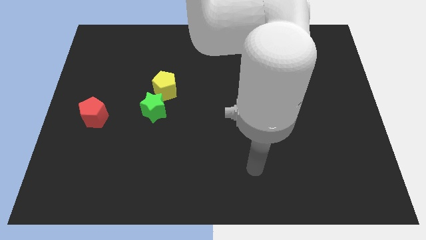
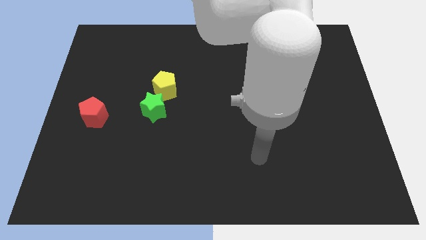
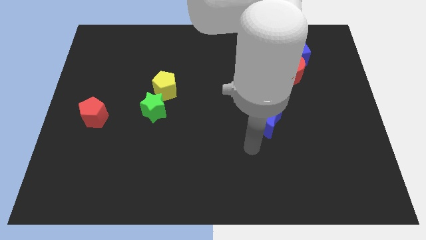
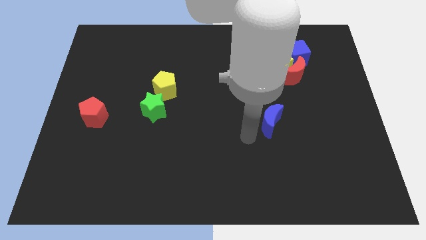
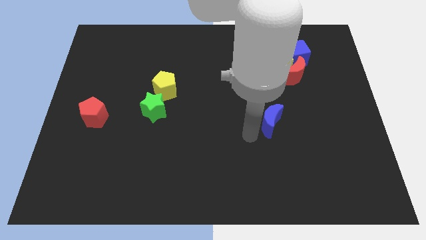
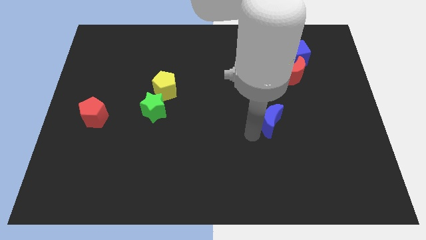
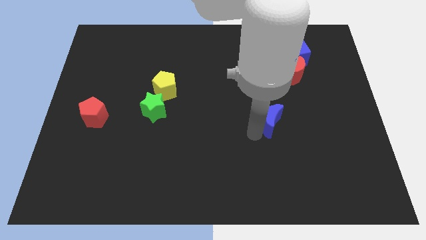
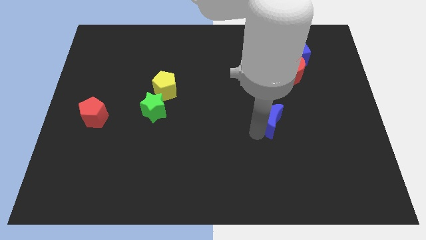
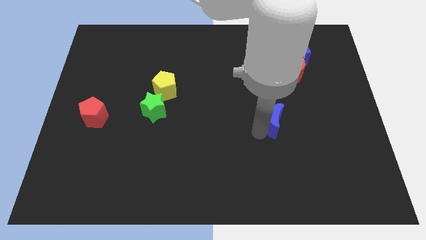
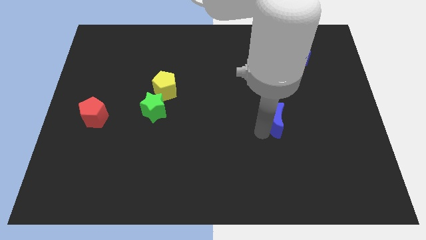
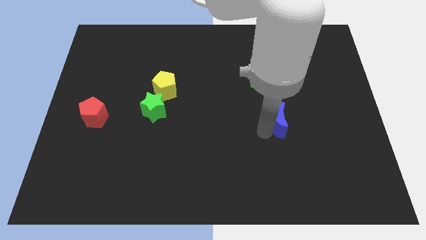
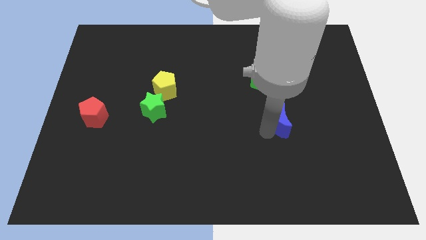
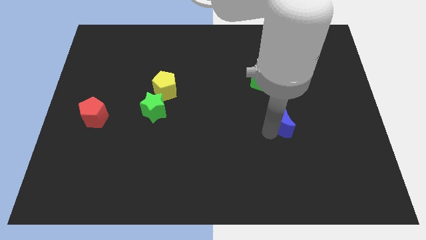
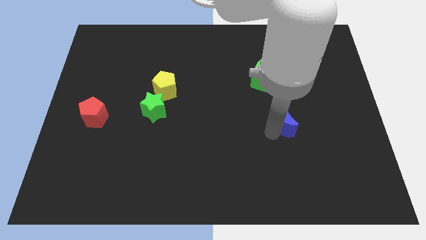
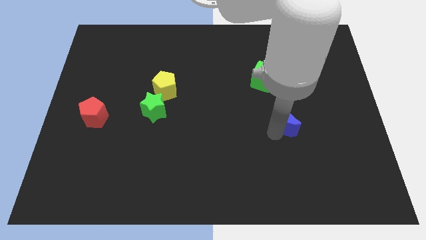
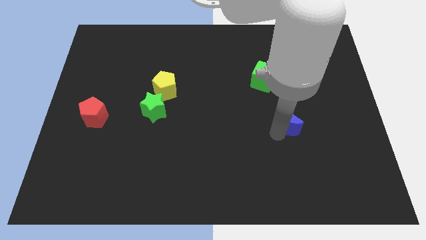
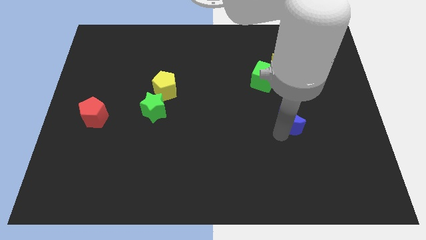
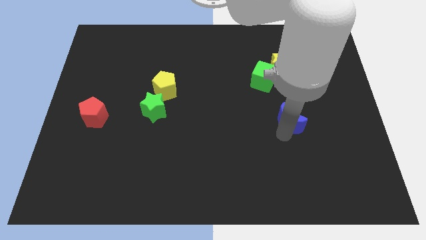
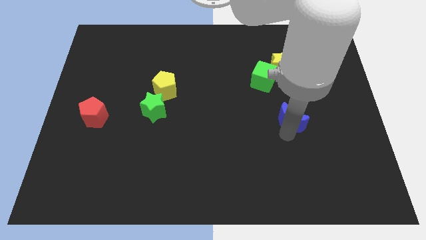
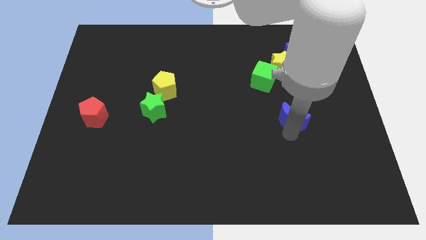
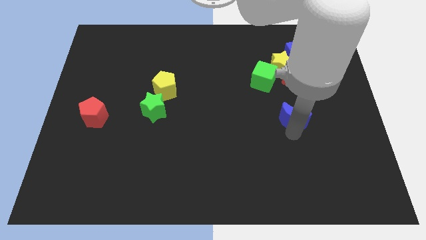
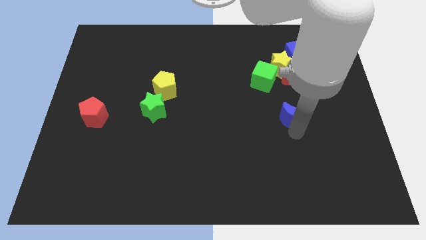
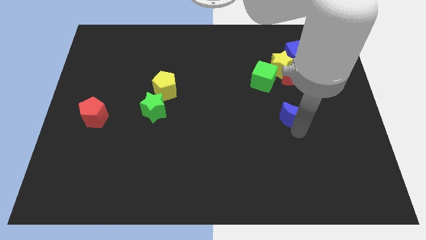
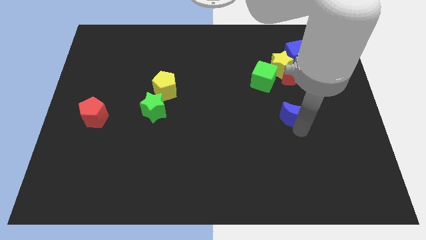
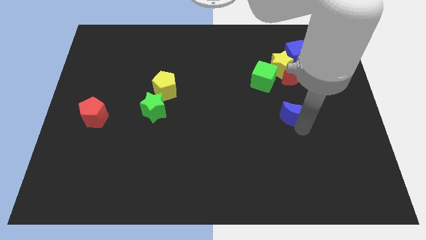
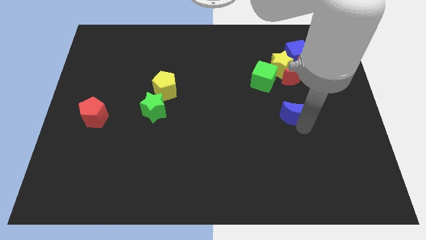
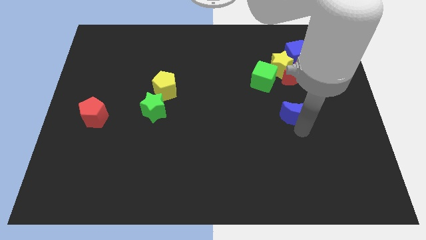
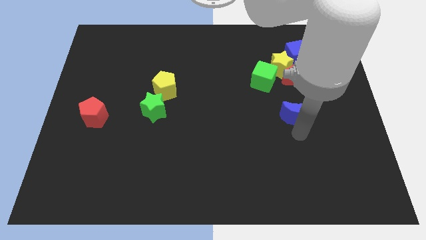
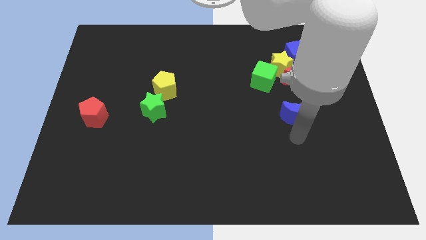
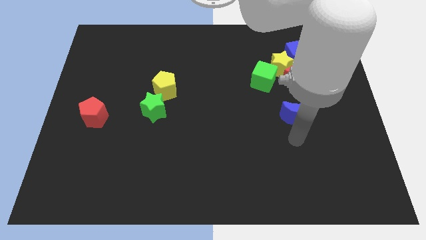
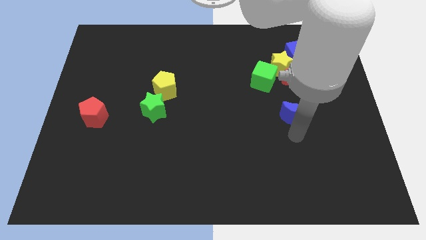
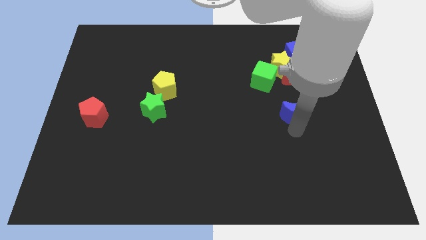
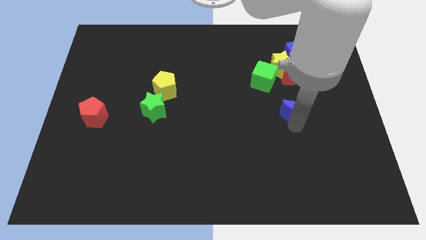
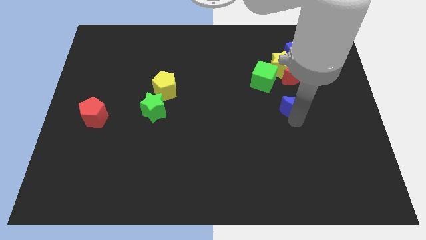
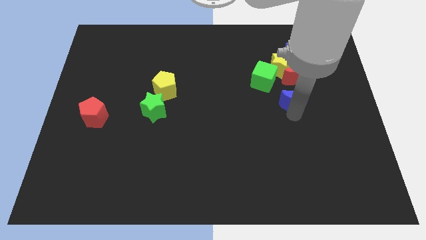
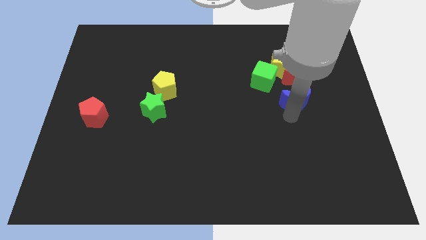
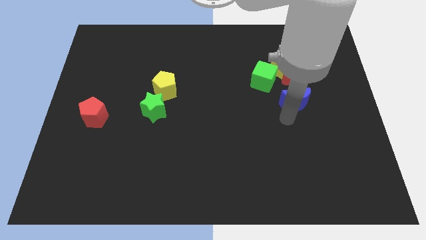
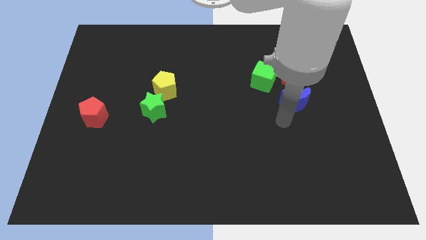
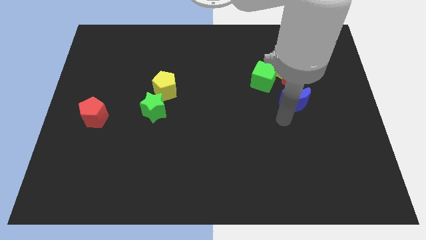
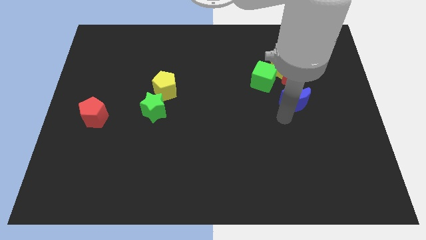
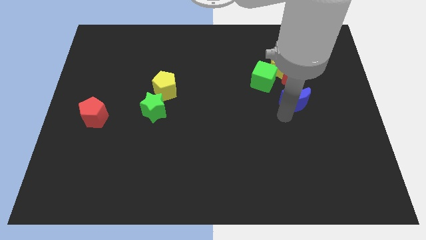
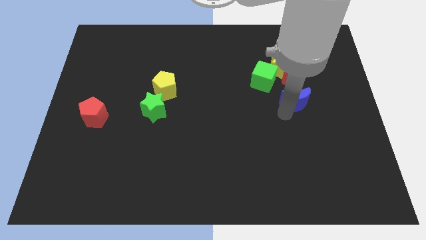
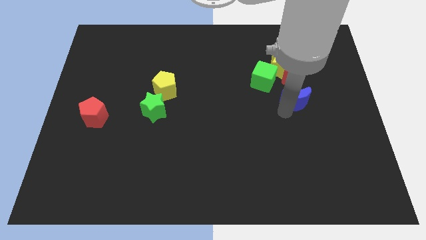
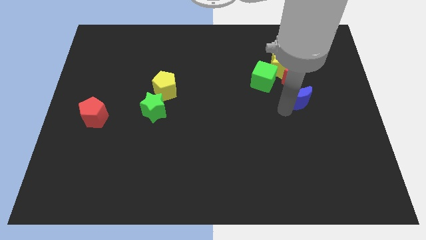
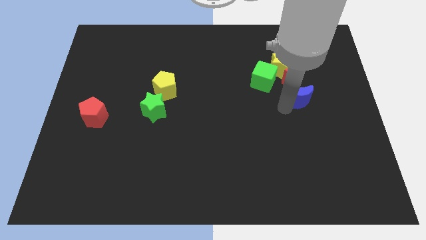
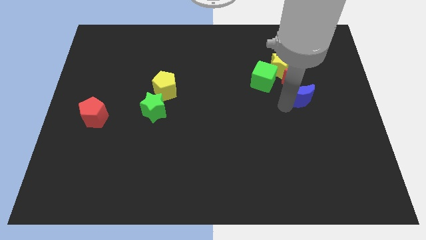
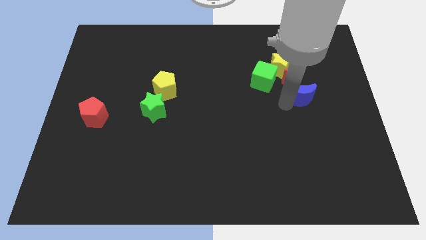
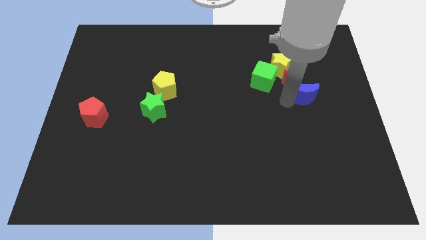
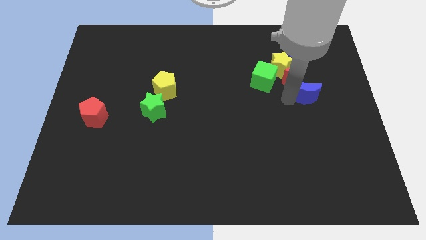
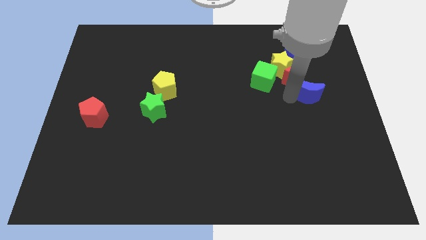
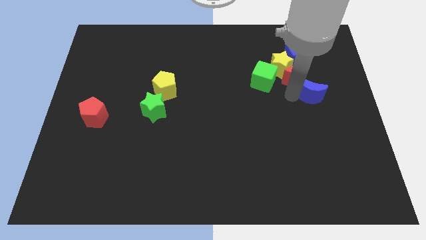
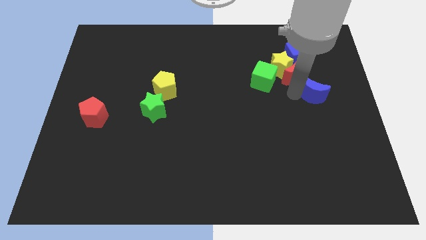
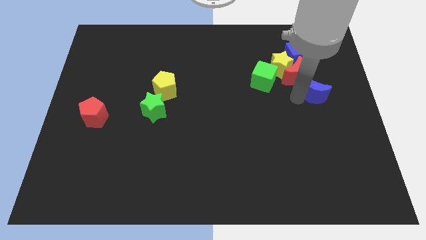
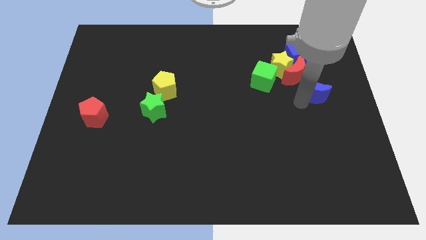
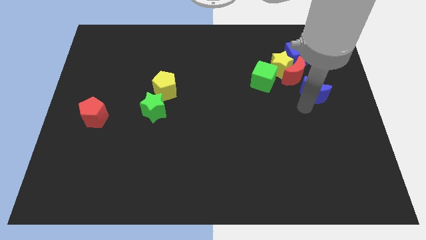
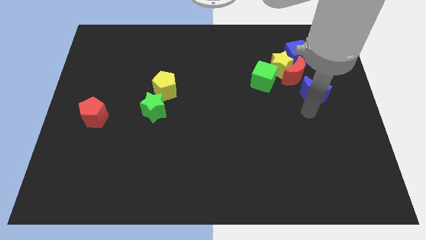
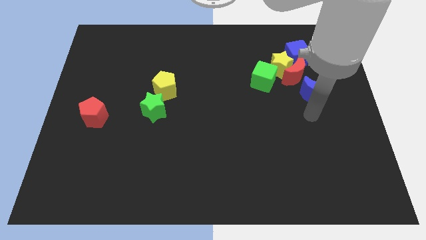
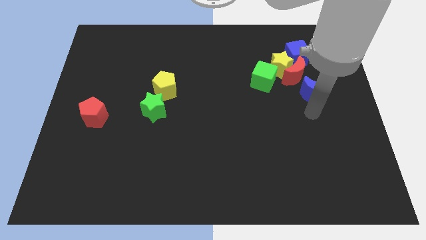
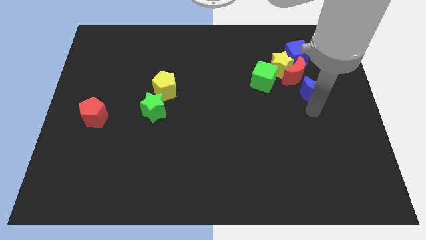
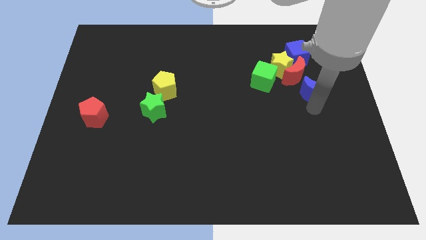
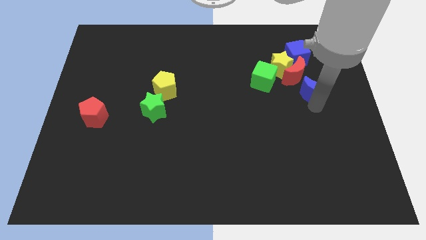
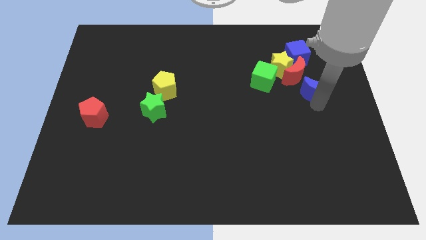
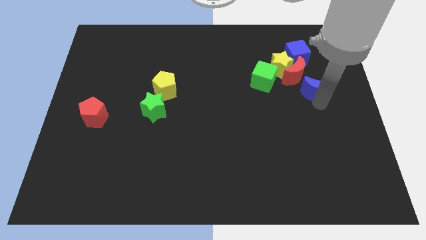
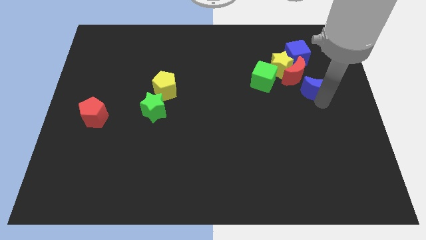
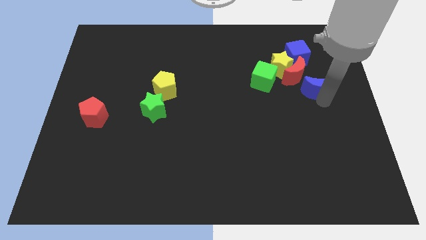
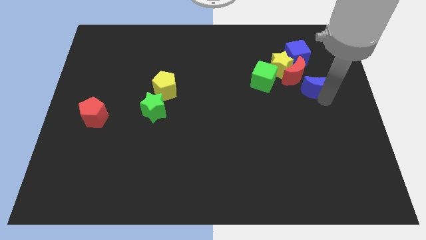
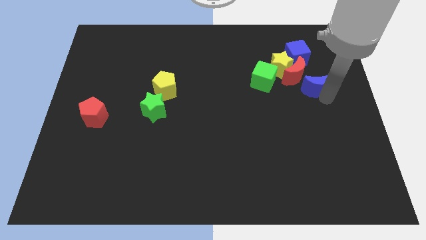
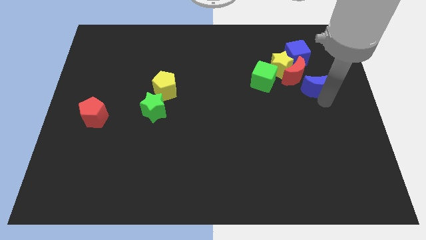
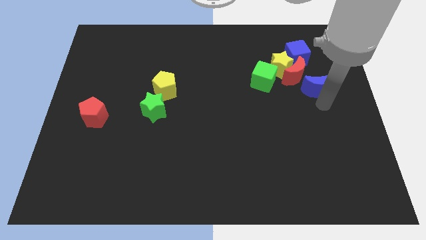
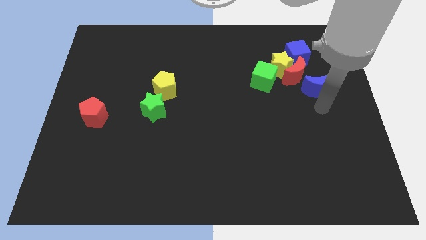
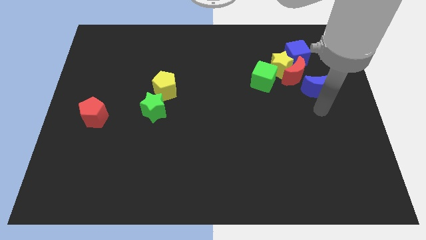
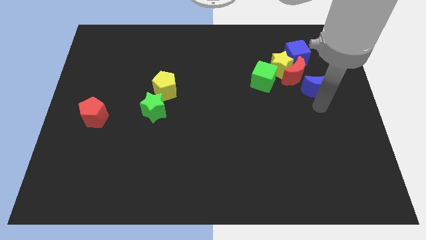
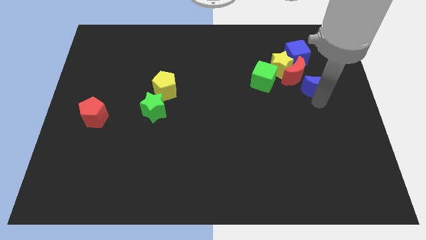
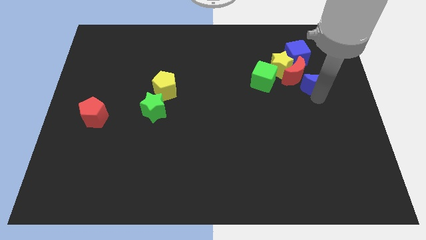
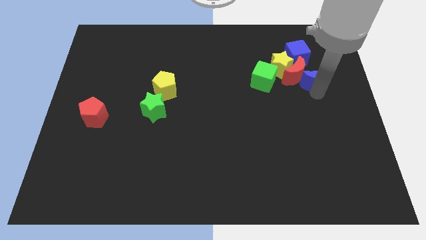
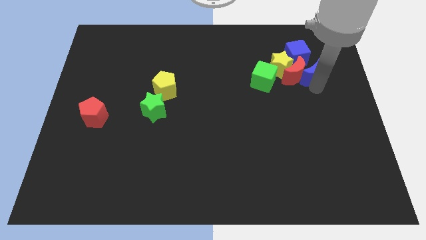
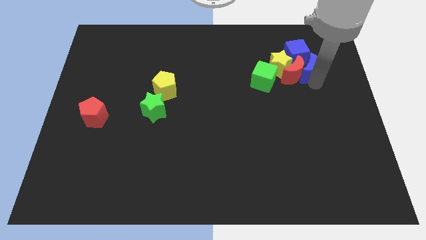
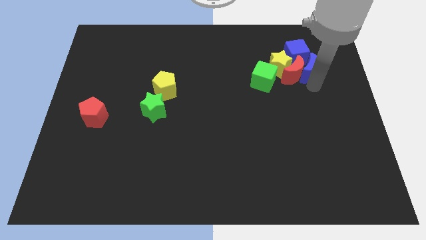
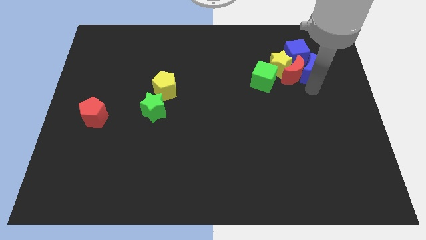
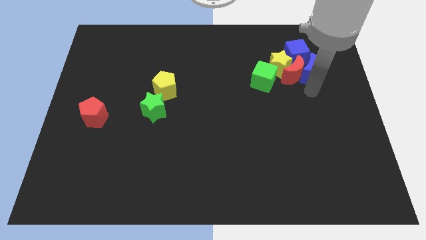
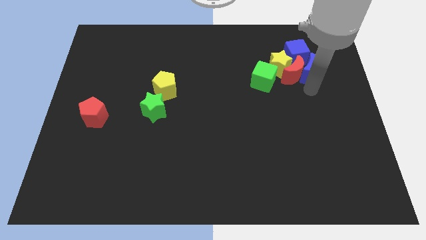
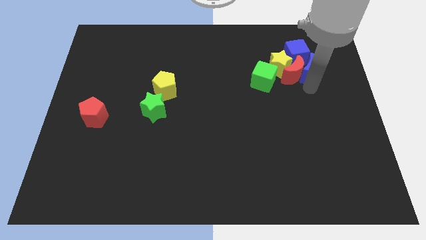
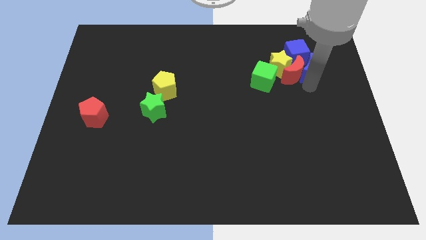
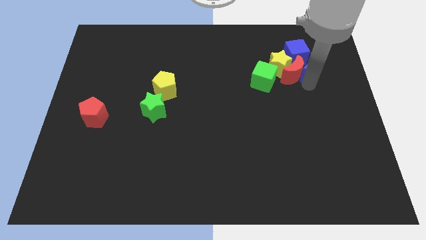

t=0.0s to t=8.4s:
slide the blue moon close to the blue cube
